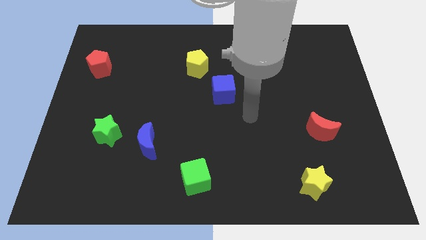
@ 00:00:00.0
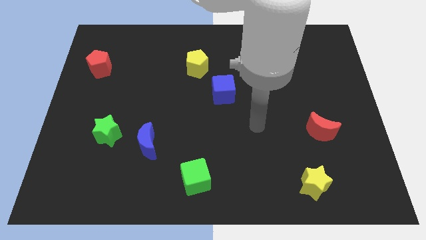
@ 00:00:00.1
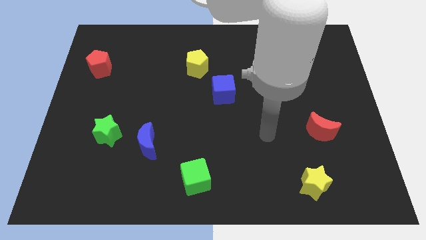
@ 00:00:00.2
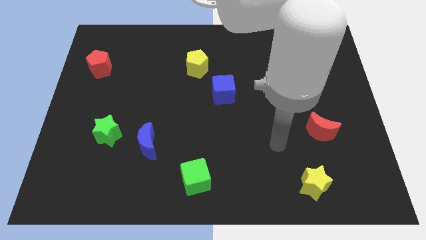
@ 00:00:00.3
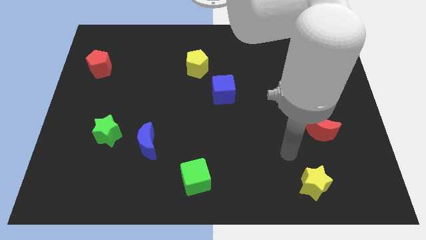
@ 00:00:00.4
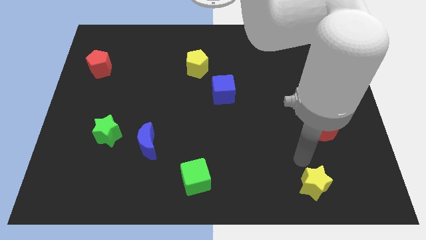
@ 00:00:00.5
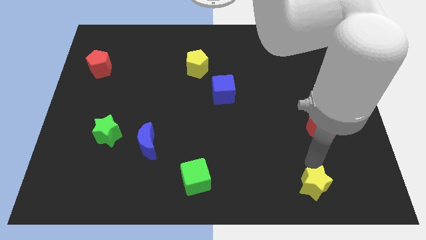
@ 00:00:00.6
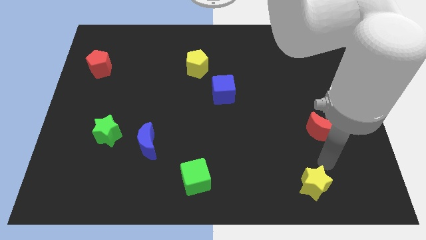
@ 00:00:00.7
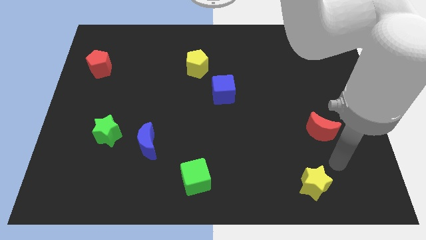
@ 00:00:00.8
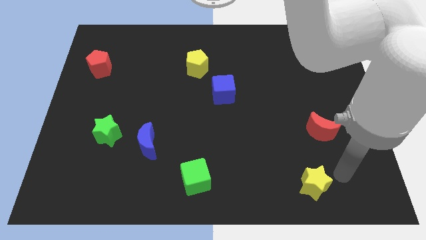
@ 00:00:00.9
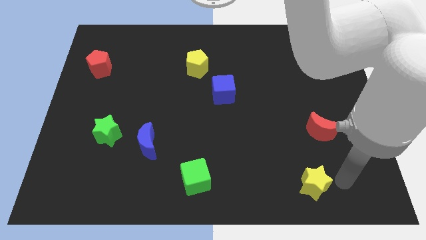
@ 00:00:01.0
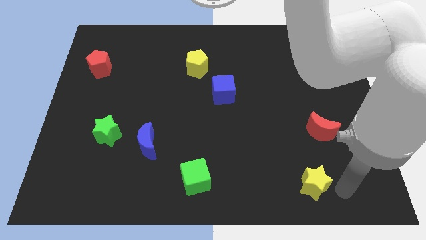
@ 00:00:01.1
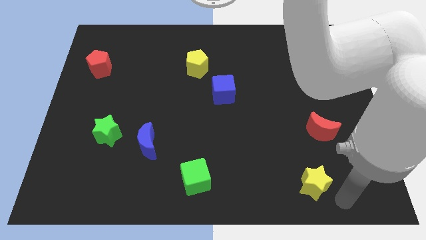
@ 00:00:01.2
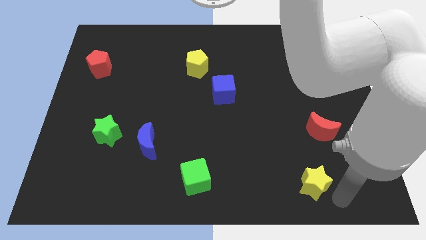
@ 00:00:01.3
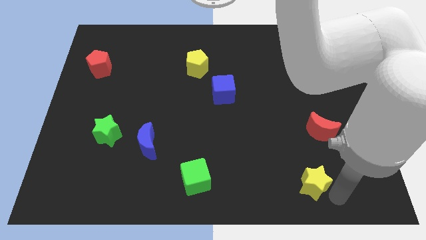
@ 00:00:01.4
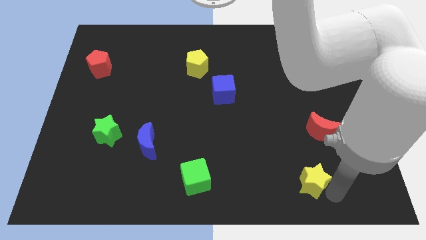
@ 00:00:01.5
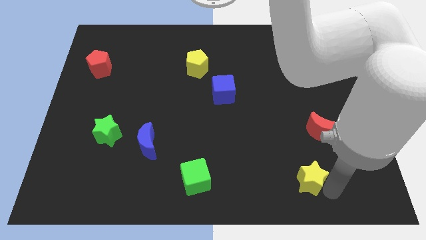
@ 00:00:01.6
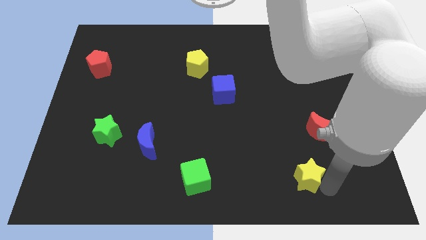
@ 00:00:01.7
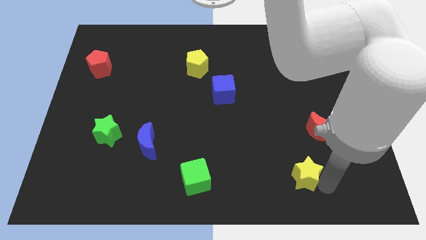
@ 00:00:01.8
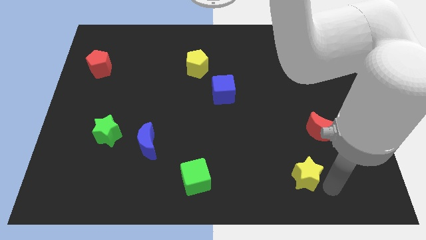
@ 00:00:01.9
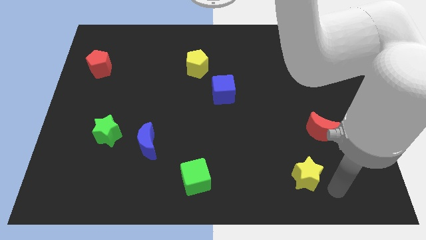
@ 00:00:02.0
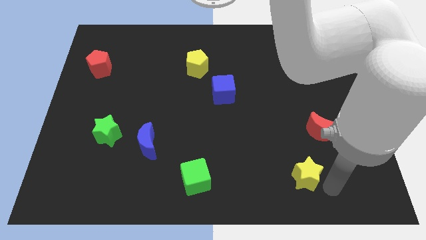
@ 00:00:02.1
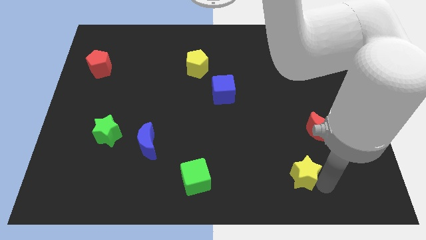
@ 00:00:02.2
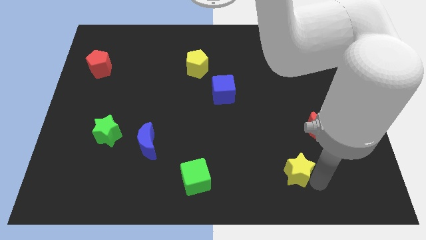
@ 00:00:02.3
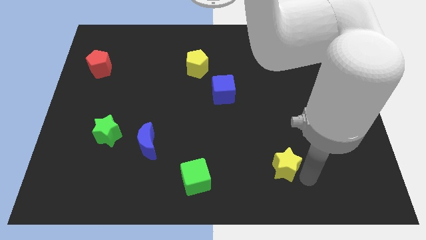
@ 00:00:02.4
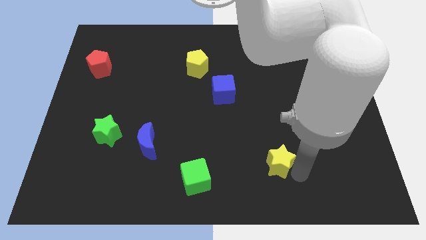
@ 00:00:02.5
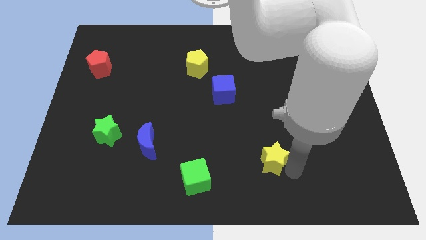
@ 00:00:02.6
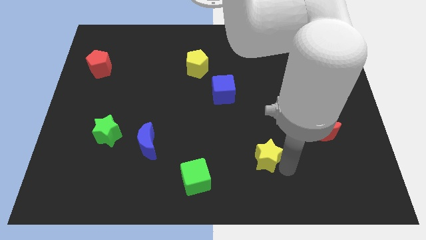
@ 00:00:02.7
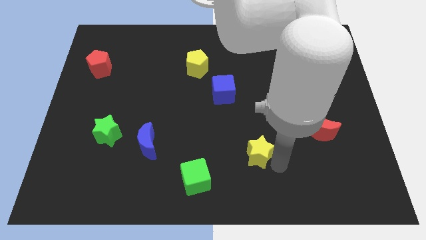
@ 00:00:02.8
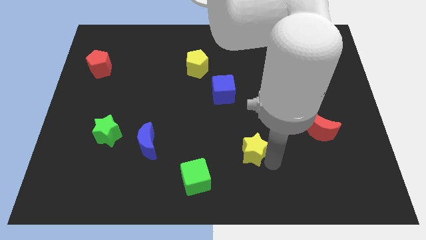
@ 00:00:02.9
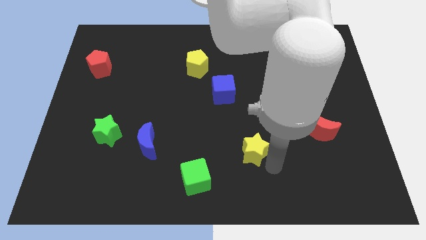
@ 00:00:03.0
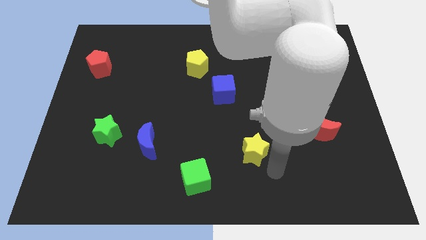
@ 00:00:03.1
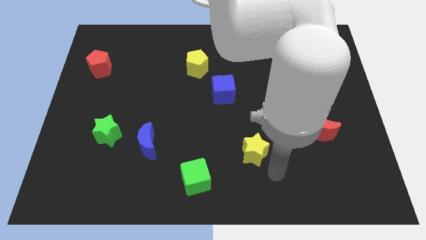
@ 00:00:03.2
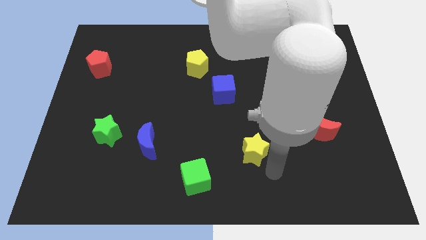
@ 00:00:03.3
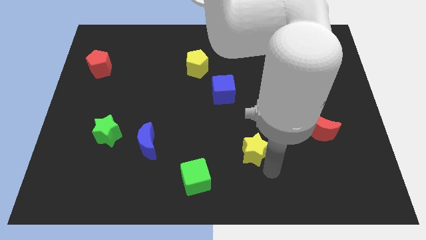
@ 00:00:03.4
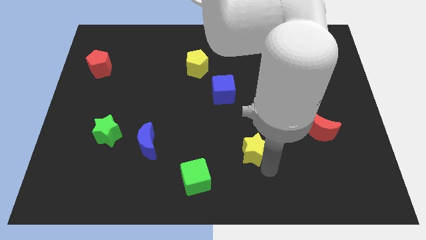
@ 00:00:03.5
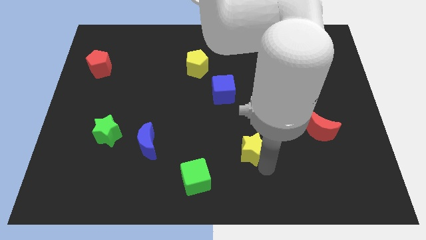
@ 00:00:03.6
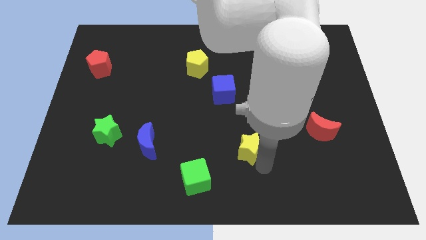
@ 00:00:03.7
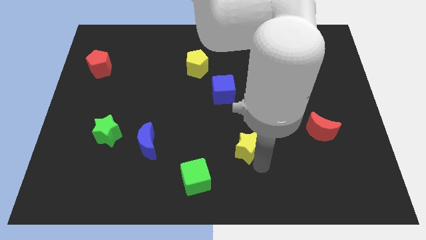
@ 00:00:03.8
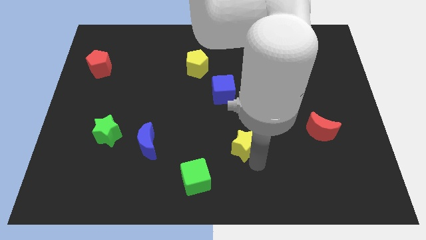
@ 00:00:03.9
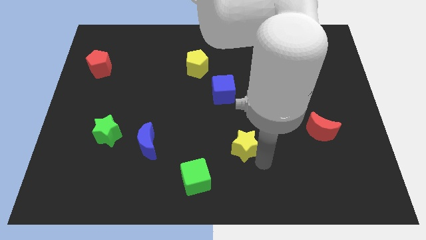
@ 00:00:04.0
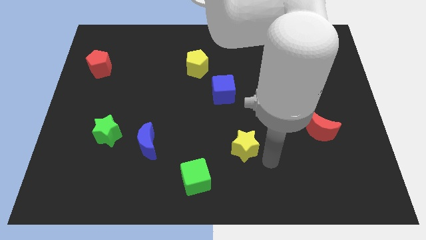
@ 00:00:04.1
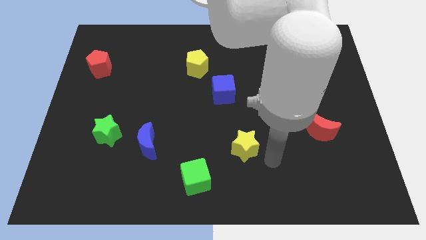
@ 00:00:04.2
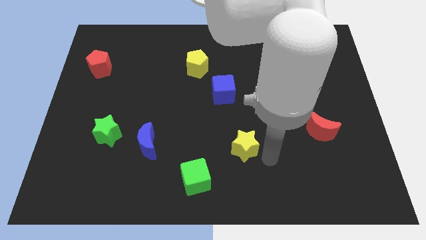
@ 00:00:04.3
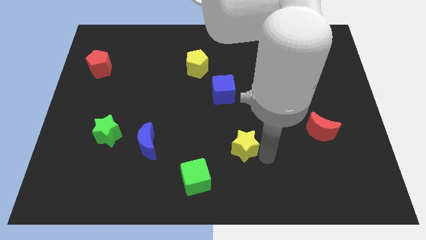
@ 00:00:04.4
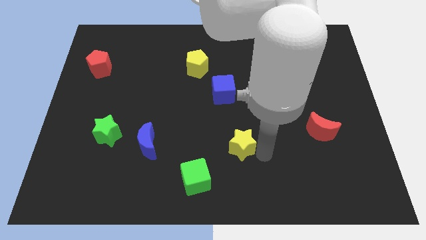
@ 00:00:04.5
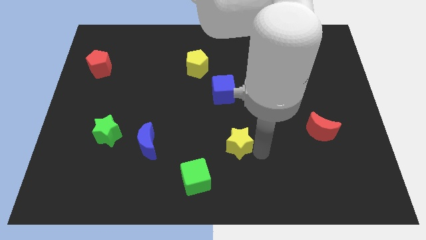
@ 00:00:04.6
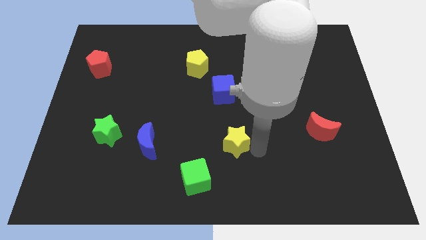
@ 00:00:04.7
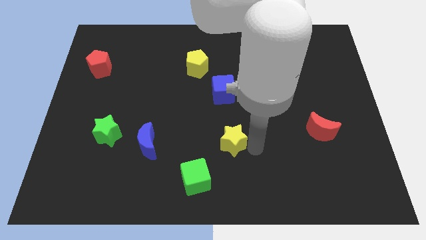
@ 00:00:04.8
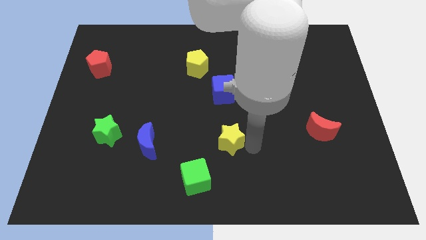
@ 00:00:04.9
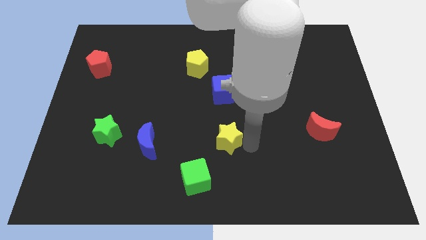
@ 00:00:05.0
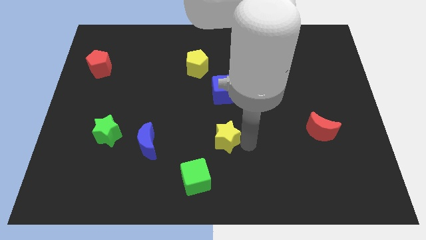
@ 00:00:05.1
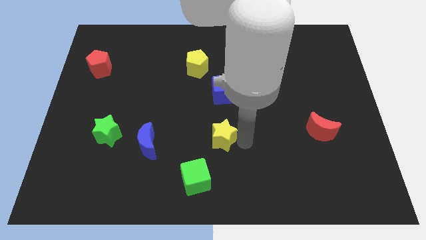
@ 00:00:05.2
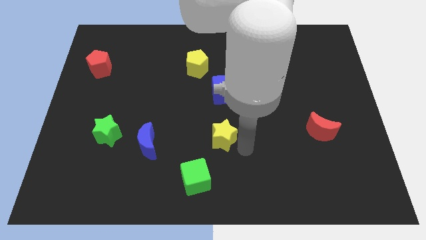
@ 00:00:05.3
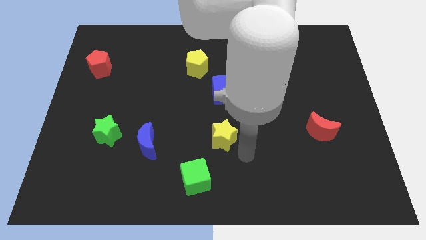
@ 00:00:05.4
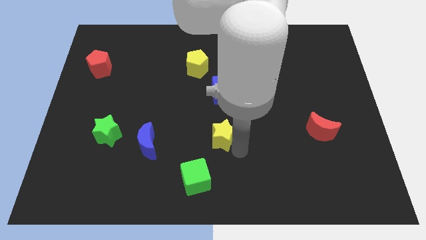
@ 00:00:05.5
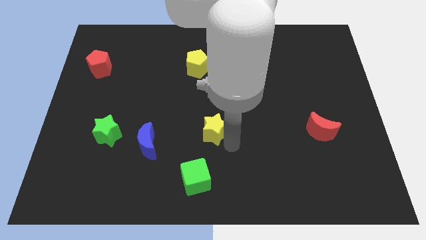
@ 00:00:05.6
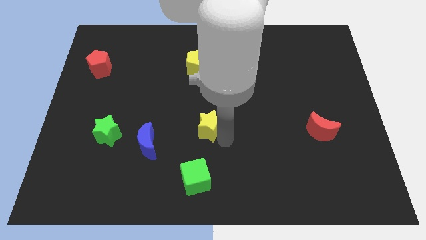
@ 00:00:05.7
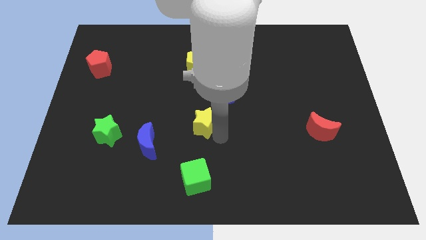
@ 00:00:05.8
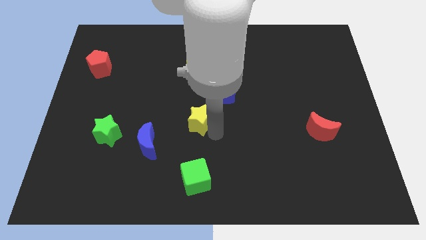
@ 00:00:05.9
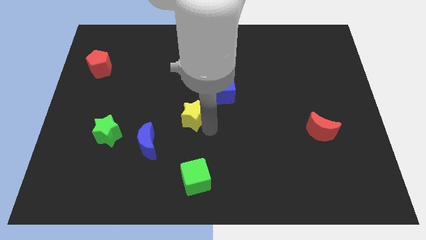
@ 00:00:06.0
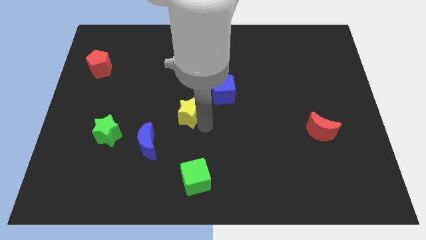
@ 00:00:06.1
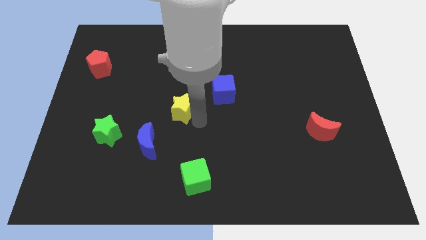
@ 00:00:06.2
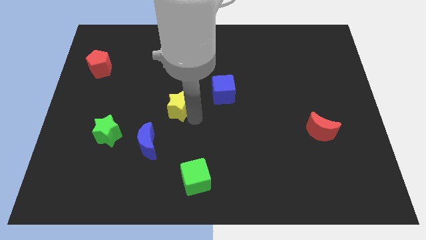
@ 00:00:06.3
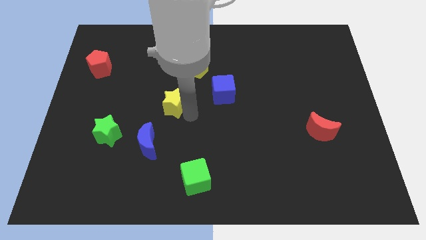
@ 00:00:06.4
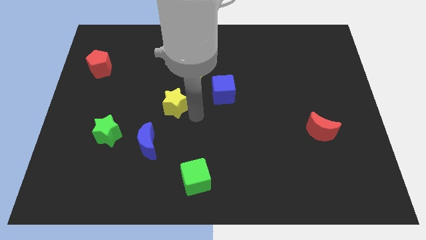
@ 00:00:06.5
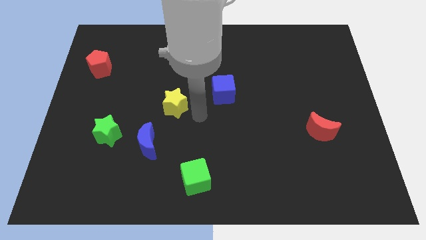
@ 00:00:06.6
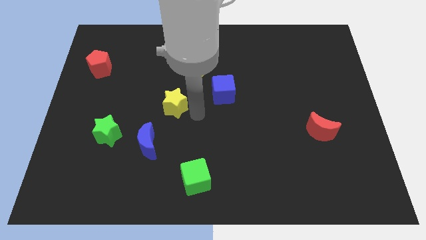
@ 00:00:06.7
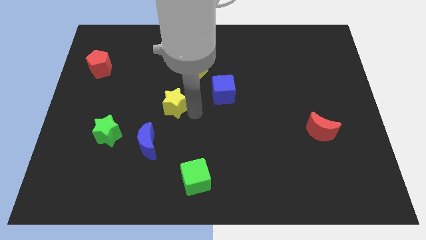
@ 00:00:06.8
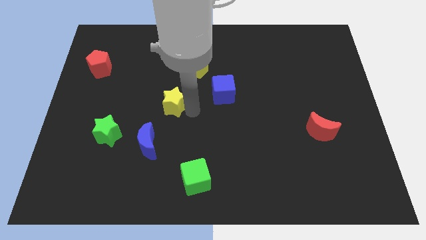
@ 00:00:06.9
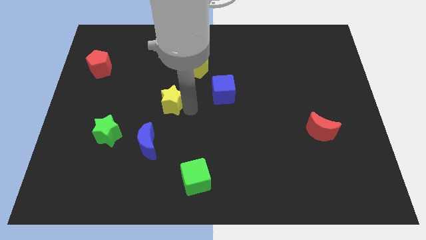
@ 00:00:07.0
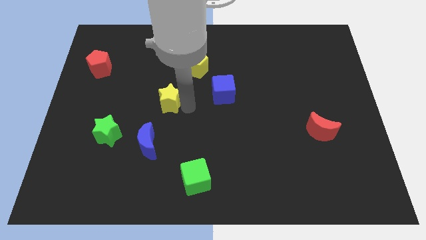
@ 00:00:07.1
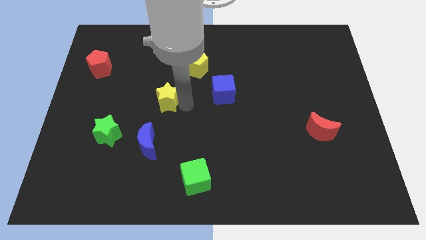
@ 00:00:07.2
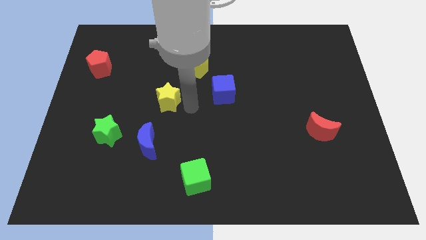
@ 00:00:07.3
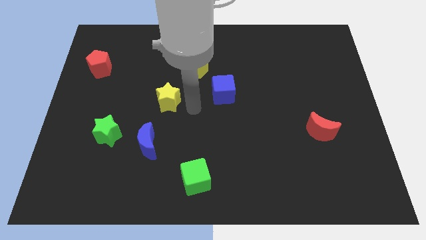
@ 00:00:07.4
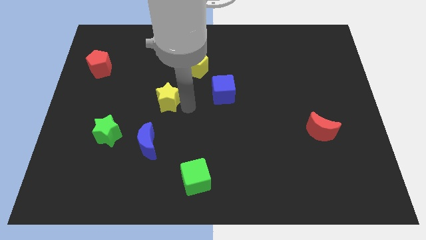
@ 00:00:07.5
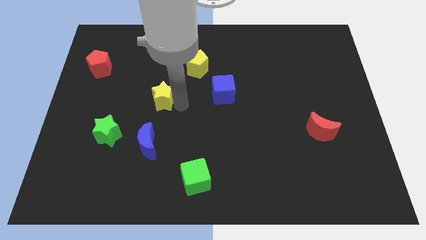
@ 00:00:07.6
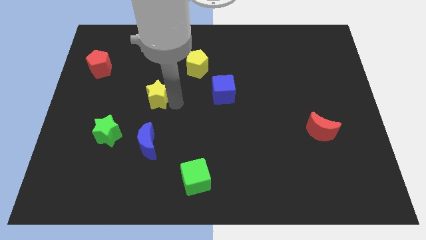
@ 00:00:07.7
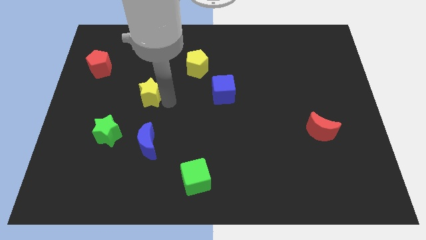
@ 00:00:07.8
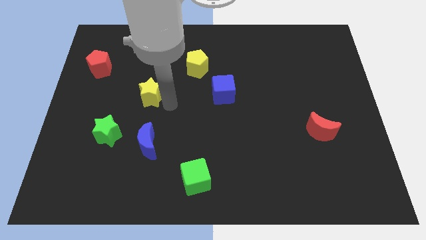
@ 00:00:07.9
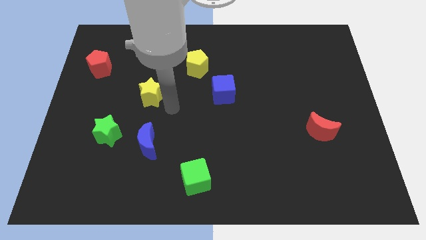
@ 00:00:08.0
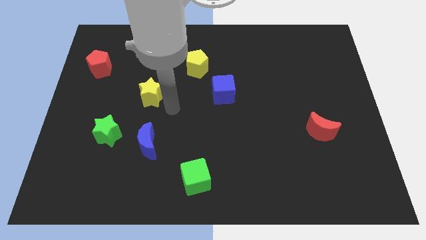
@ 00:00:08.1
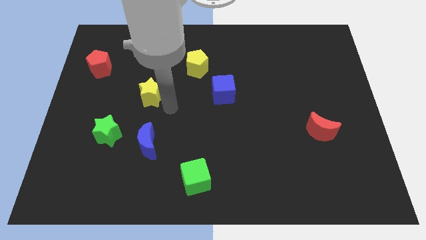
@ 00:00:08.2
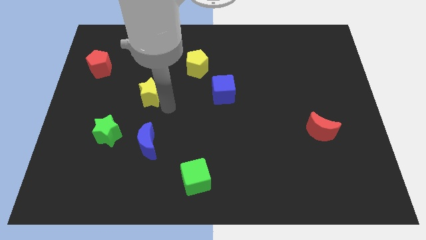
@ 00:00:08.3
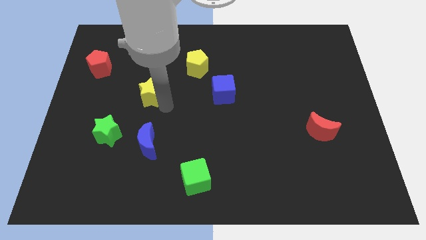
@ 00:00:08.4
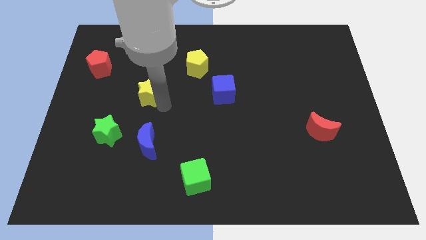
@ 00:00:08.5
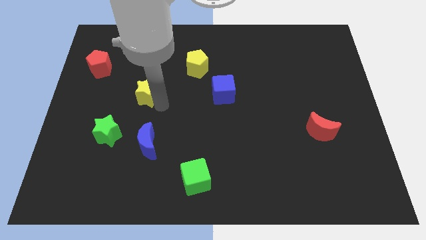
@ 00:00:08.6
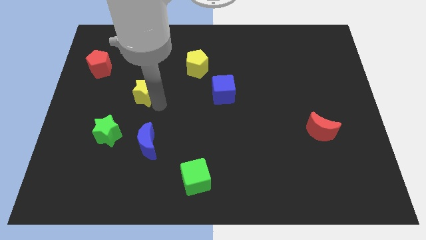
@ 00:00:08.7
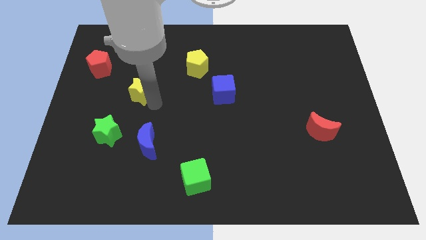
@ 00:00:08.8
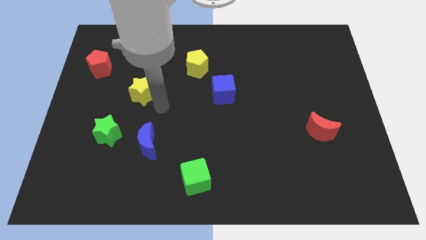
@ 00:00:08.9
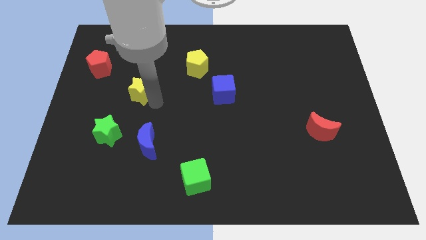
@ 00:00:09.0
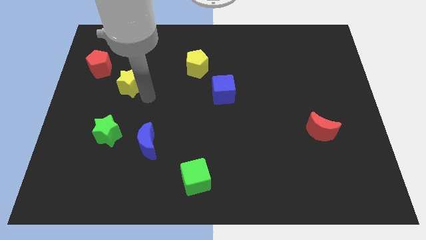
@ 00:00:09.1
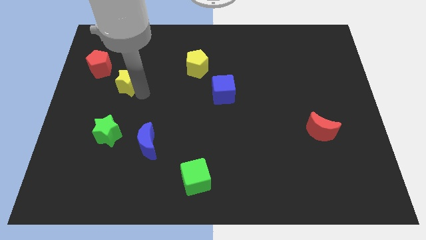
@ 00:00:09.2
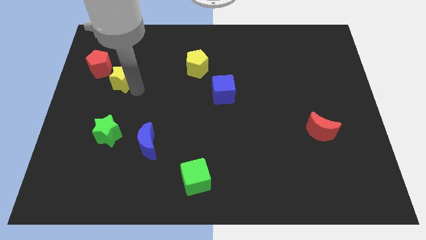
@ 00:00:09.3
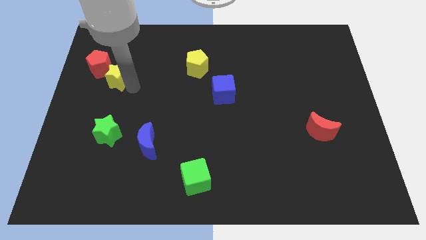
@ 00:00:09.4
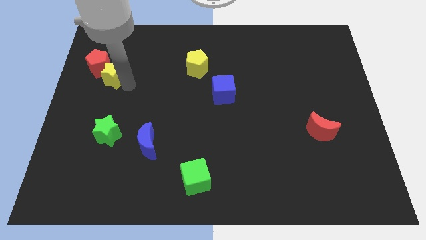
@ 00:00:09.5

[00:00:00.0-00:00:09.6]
put the yellow star towards the red pentagon
